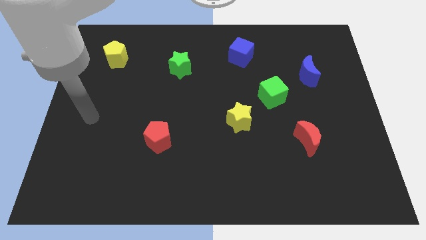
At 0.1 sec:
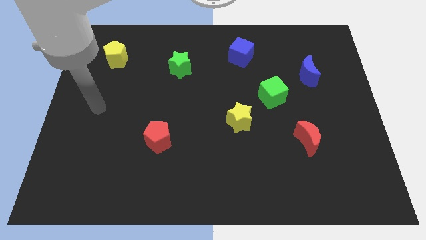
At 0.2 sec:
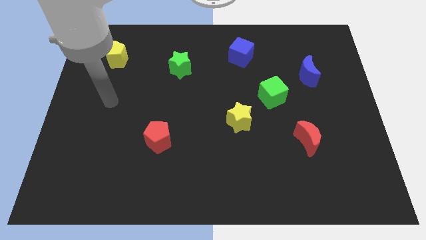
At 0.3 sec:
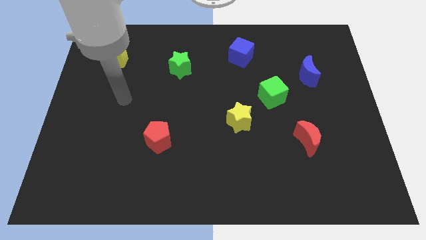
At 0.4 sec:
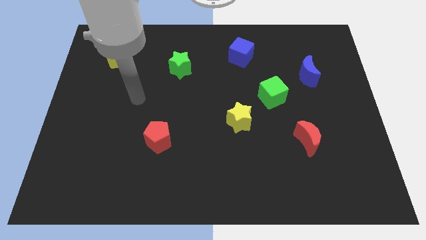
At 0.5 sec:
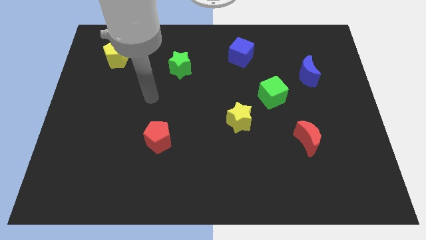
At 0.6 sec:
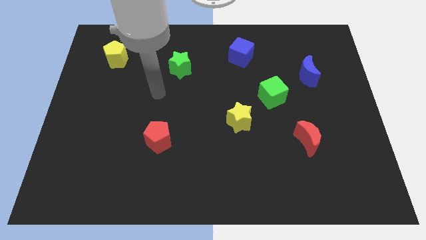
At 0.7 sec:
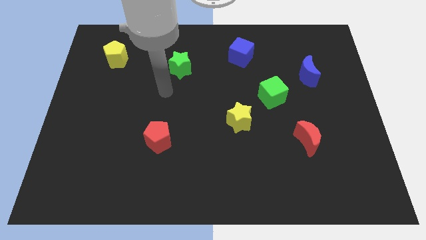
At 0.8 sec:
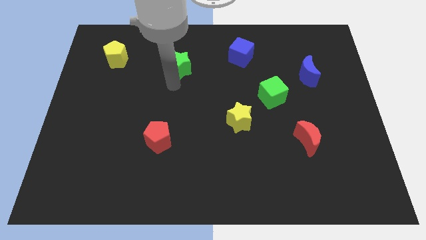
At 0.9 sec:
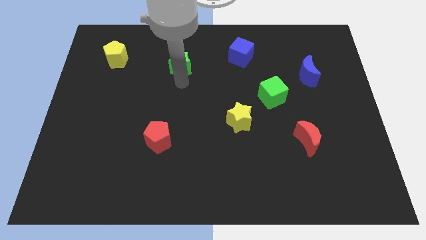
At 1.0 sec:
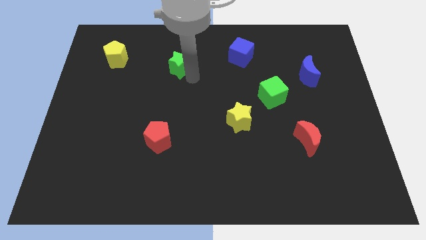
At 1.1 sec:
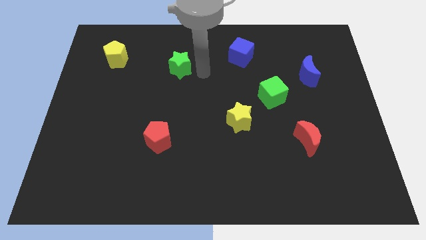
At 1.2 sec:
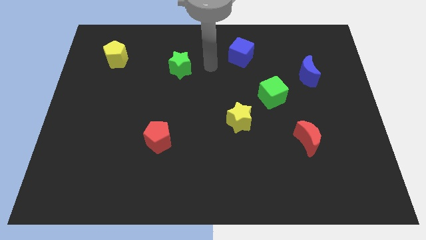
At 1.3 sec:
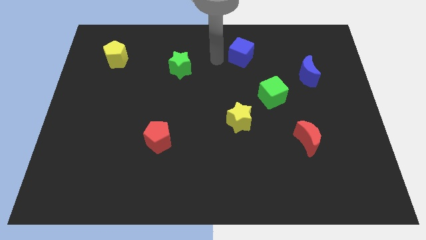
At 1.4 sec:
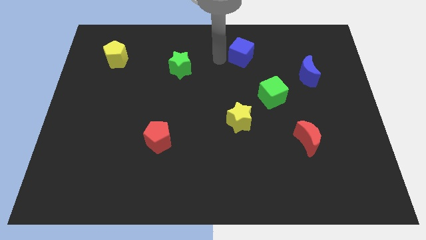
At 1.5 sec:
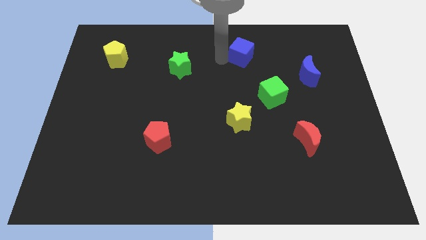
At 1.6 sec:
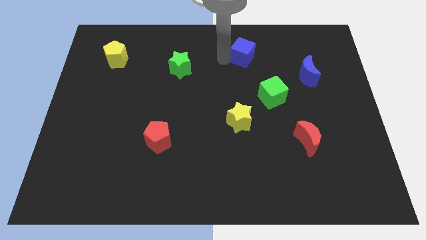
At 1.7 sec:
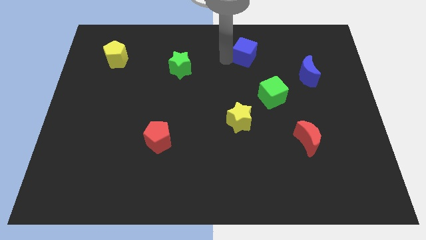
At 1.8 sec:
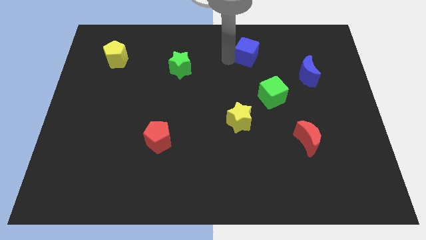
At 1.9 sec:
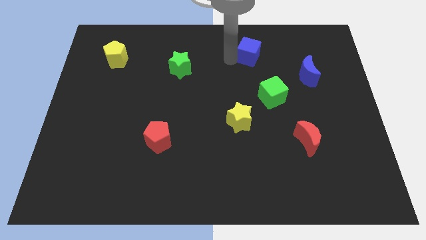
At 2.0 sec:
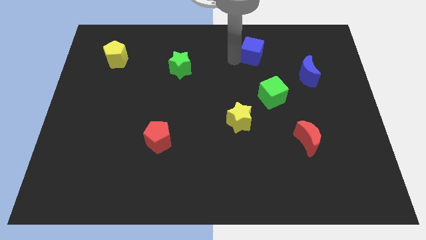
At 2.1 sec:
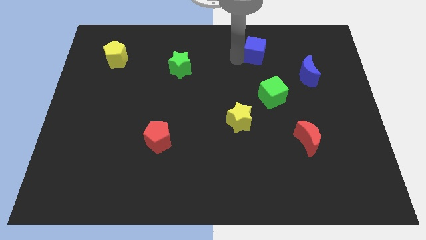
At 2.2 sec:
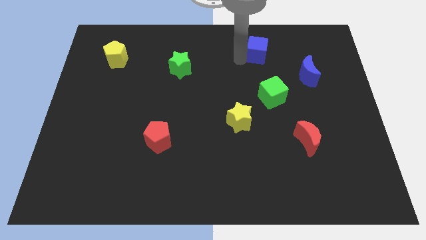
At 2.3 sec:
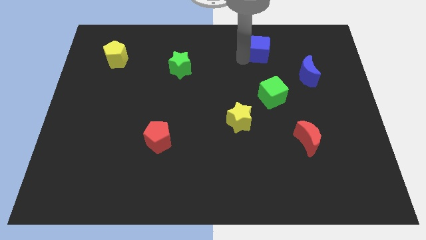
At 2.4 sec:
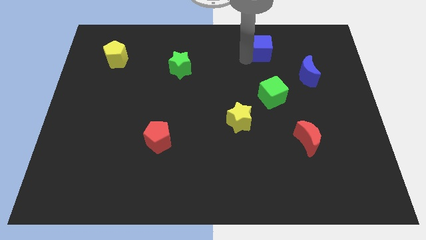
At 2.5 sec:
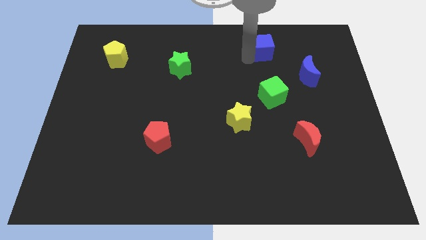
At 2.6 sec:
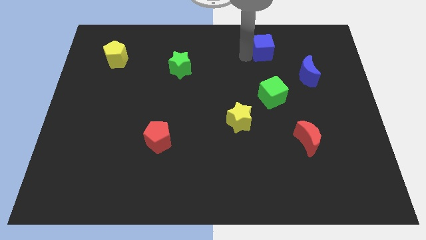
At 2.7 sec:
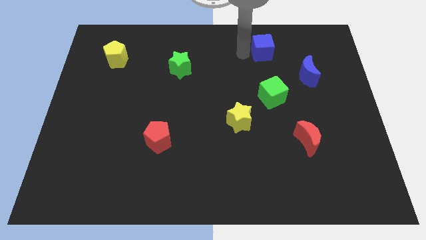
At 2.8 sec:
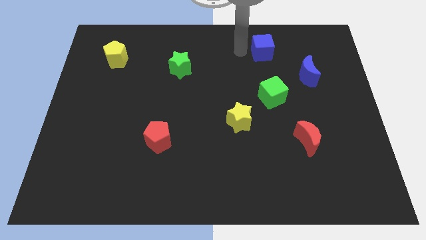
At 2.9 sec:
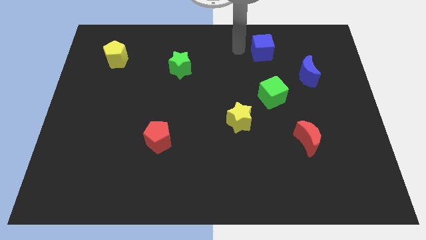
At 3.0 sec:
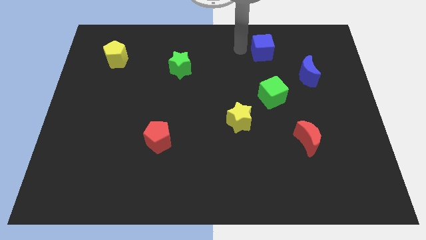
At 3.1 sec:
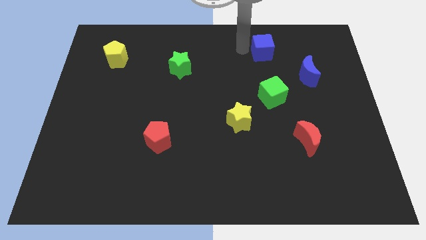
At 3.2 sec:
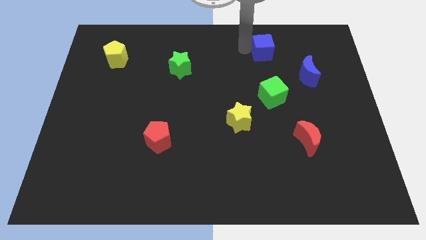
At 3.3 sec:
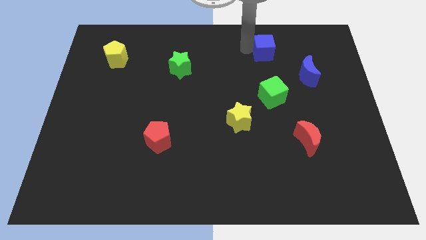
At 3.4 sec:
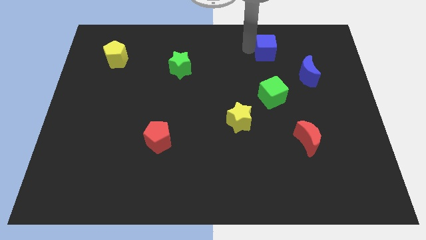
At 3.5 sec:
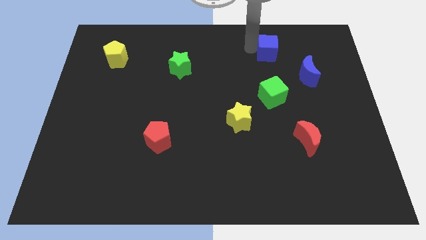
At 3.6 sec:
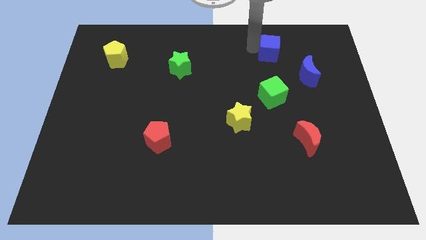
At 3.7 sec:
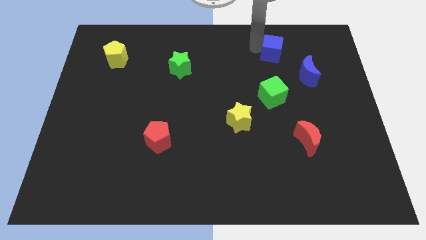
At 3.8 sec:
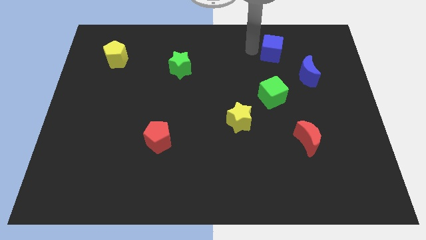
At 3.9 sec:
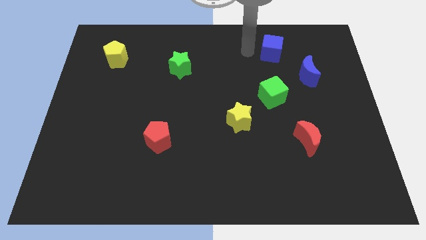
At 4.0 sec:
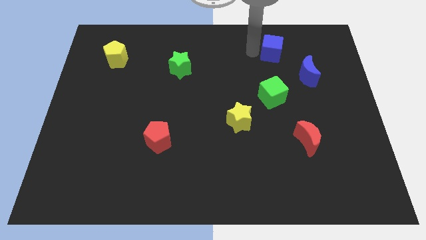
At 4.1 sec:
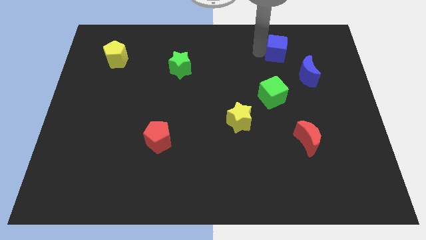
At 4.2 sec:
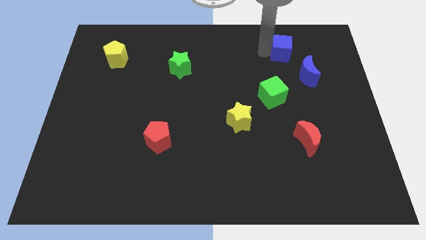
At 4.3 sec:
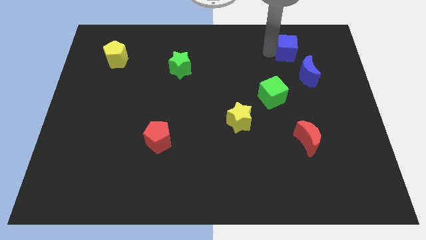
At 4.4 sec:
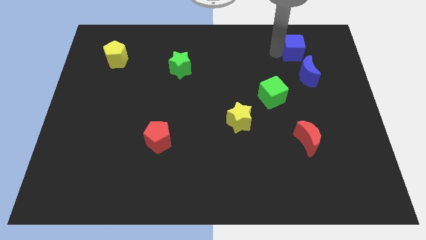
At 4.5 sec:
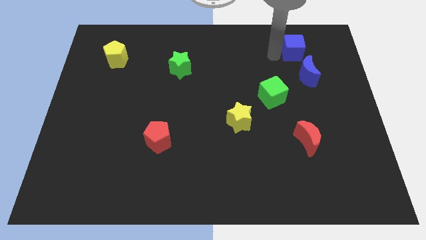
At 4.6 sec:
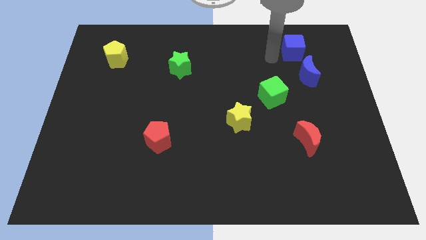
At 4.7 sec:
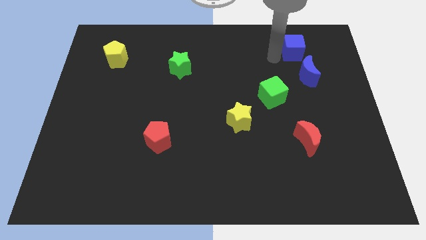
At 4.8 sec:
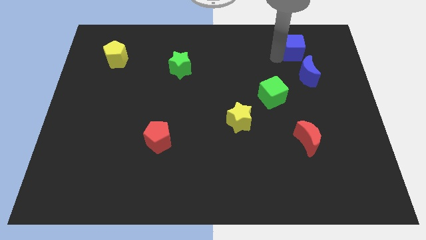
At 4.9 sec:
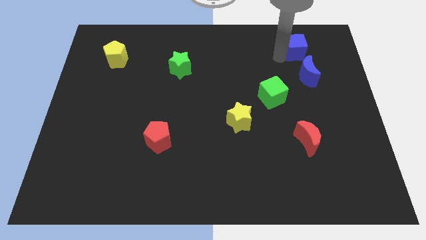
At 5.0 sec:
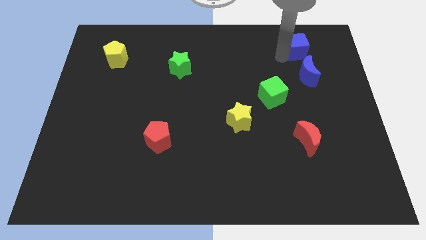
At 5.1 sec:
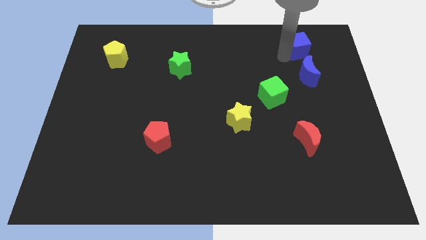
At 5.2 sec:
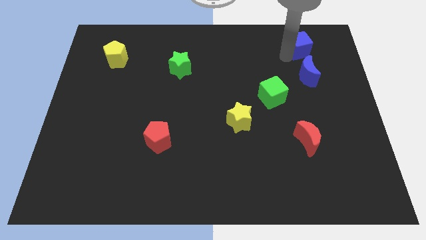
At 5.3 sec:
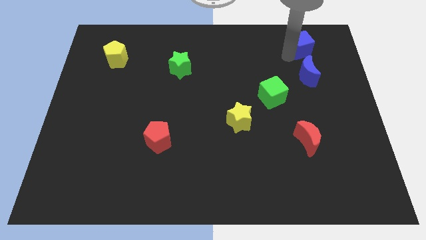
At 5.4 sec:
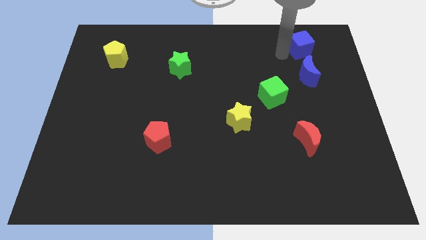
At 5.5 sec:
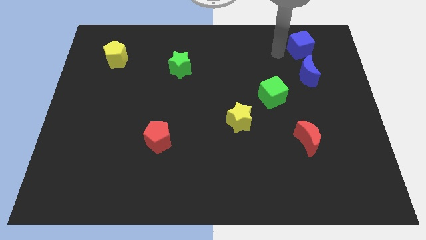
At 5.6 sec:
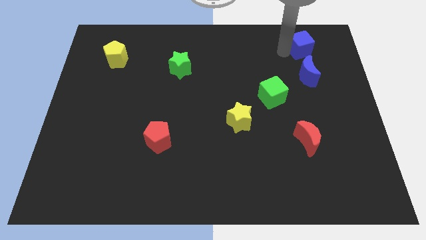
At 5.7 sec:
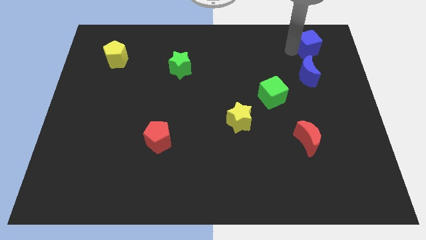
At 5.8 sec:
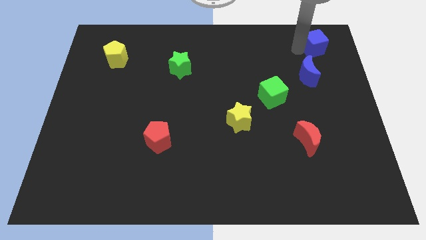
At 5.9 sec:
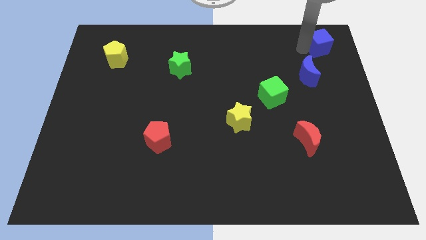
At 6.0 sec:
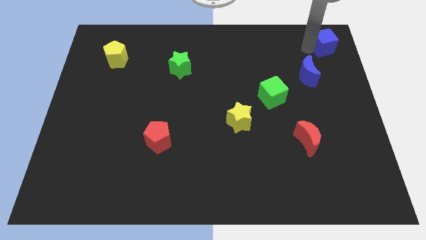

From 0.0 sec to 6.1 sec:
put the blue cube to the top right of the board

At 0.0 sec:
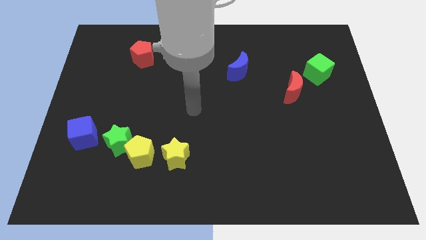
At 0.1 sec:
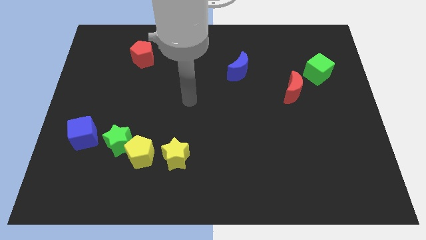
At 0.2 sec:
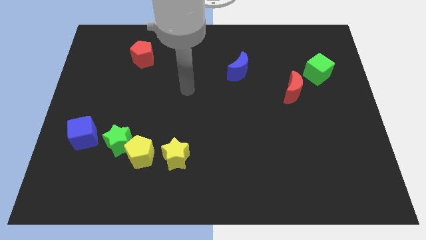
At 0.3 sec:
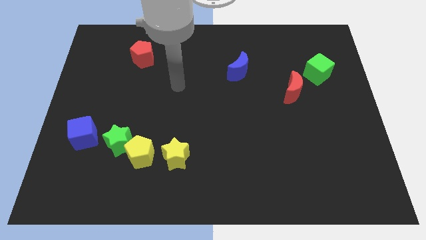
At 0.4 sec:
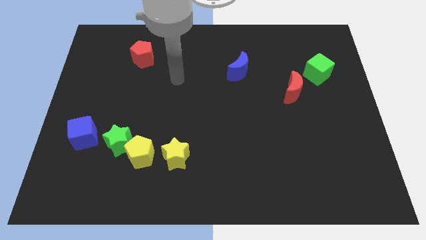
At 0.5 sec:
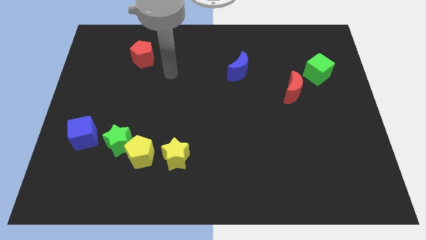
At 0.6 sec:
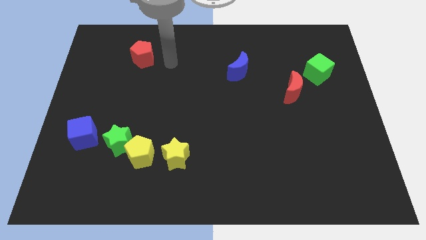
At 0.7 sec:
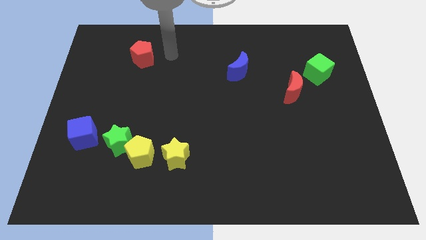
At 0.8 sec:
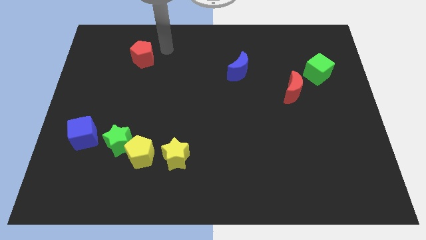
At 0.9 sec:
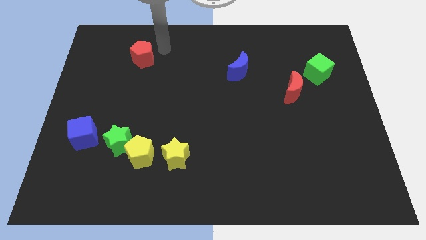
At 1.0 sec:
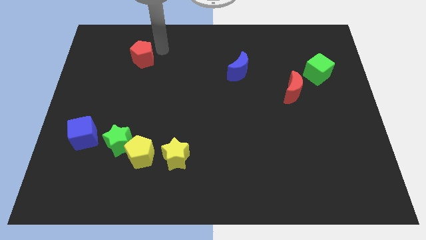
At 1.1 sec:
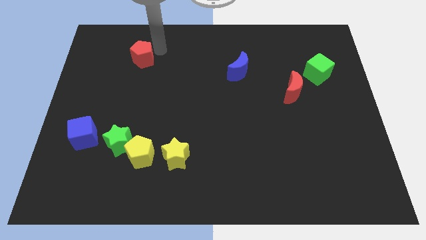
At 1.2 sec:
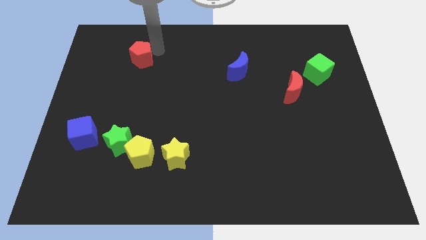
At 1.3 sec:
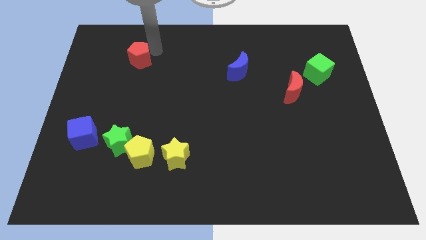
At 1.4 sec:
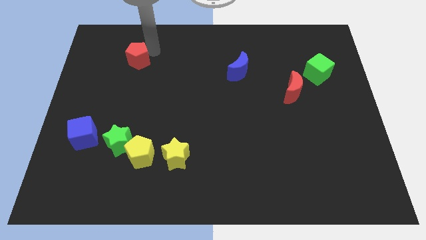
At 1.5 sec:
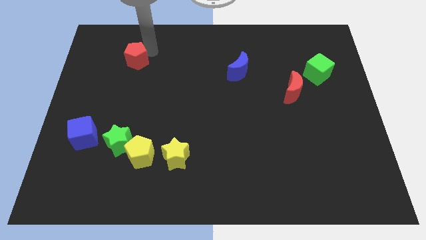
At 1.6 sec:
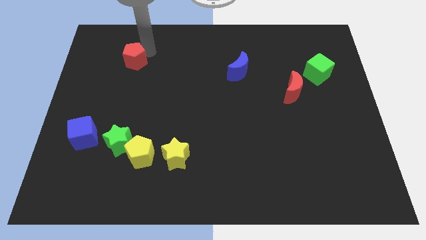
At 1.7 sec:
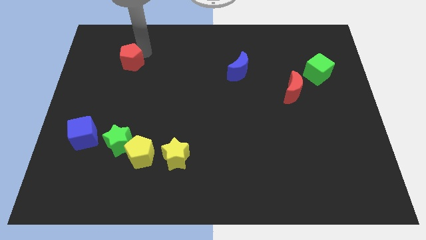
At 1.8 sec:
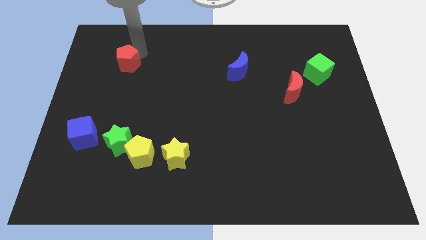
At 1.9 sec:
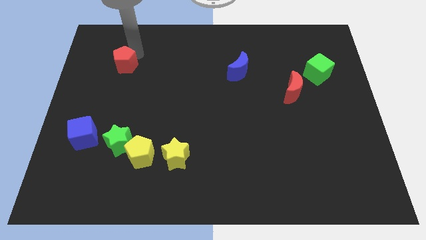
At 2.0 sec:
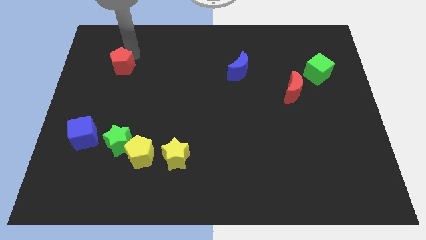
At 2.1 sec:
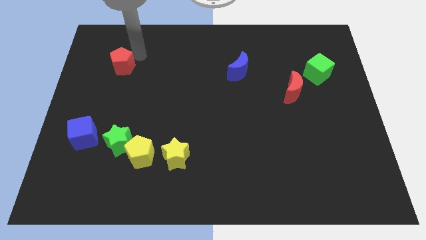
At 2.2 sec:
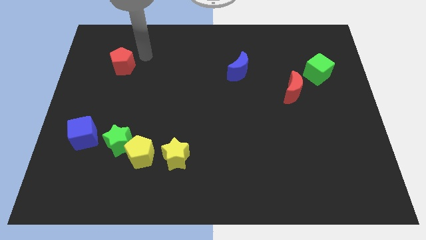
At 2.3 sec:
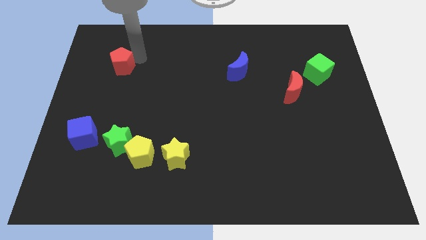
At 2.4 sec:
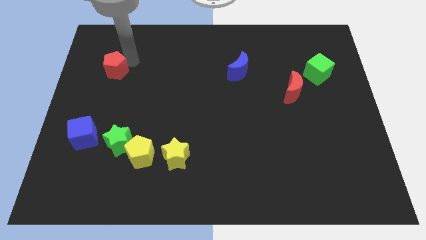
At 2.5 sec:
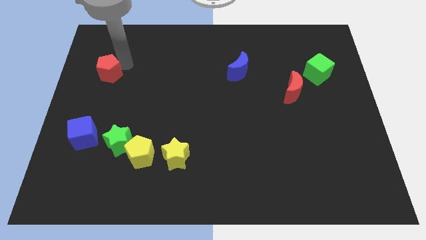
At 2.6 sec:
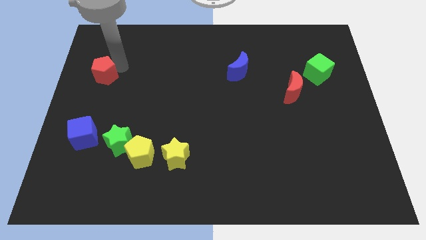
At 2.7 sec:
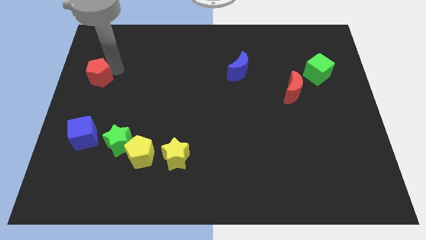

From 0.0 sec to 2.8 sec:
put the red pentagon to the center left
